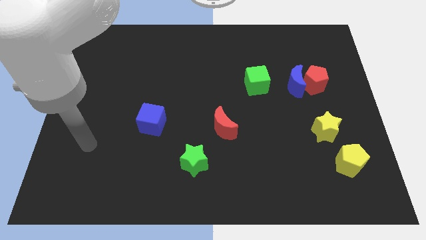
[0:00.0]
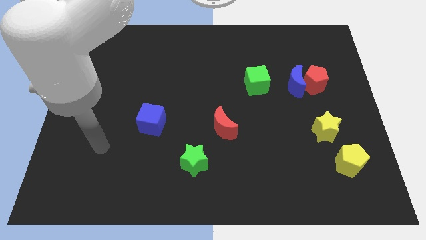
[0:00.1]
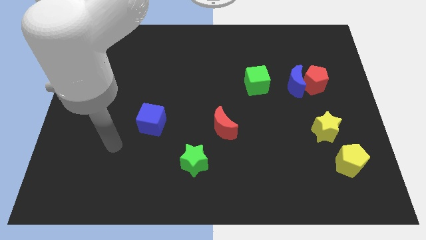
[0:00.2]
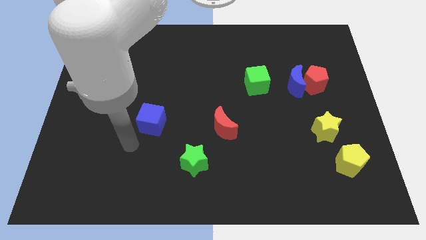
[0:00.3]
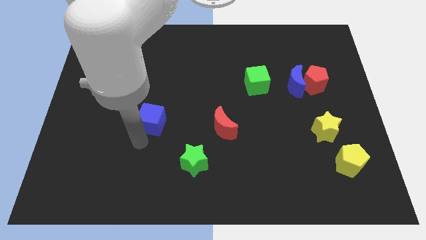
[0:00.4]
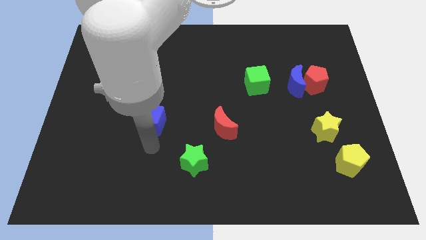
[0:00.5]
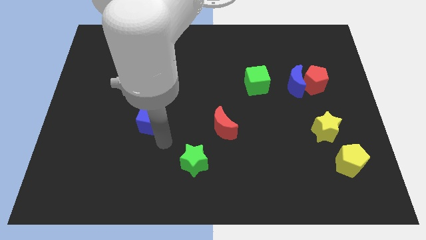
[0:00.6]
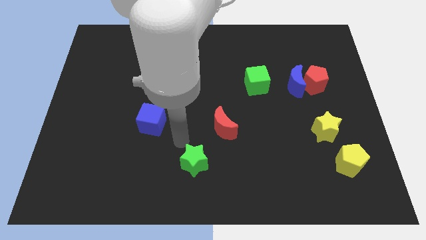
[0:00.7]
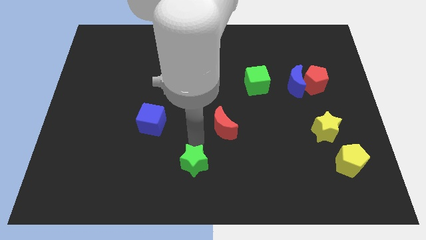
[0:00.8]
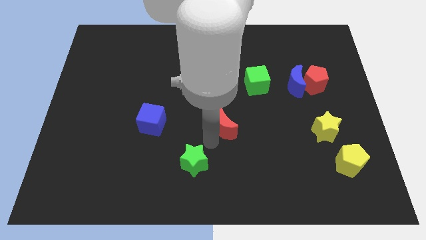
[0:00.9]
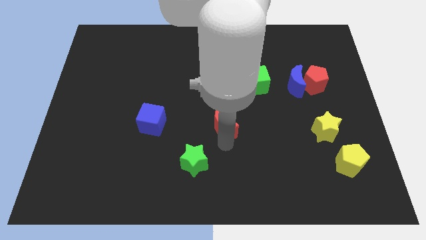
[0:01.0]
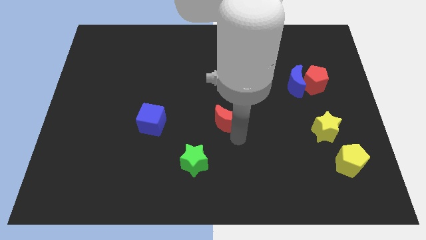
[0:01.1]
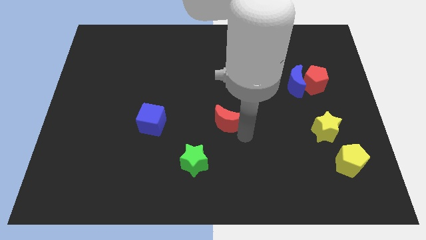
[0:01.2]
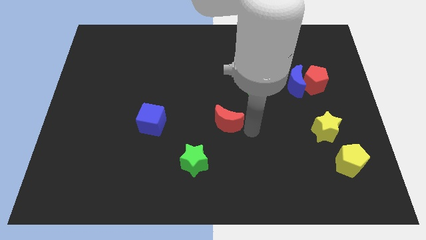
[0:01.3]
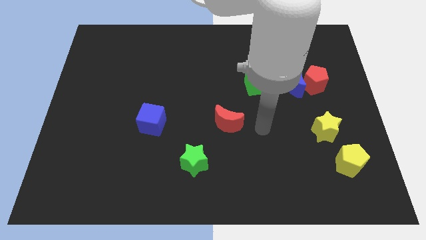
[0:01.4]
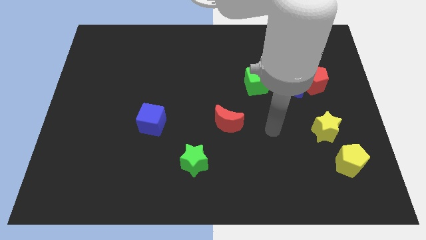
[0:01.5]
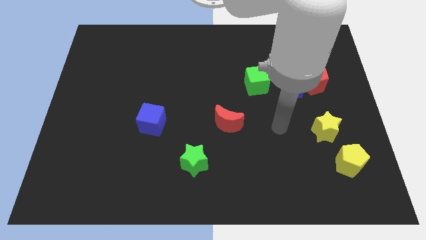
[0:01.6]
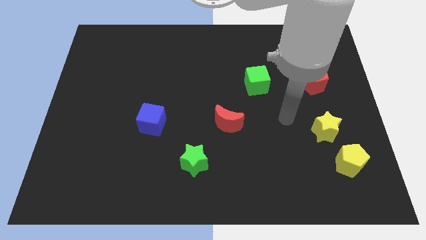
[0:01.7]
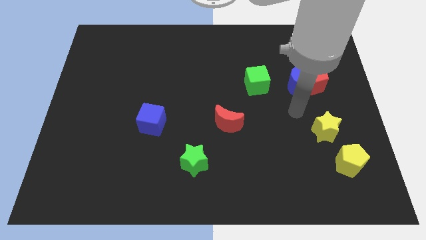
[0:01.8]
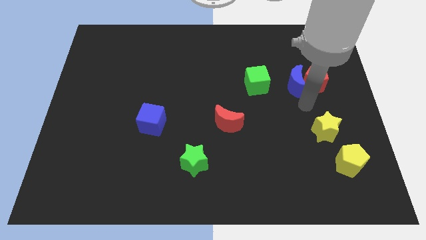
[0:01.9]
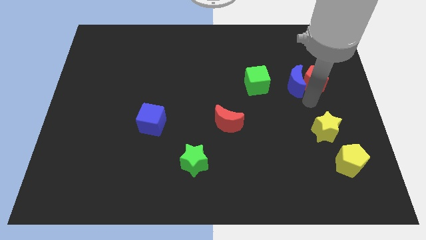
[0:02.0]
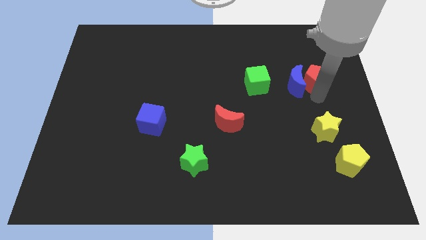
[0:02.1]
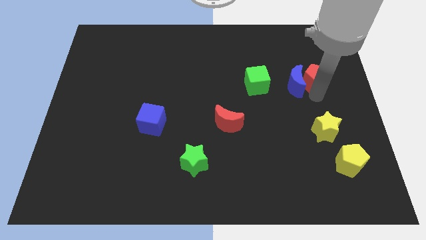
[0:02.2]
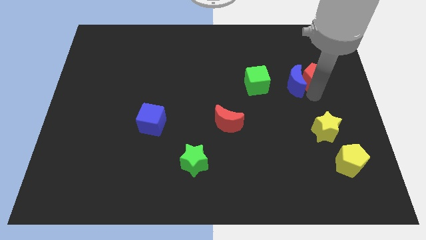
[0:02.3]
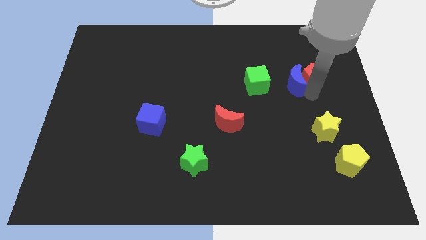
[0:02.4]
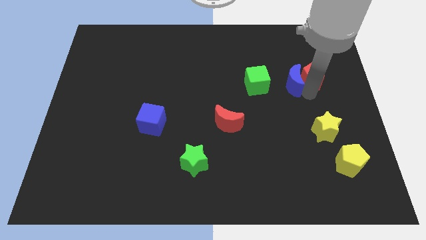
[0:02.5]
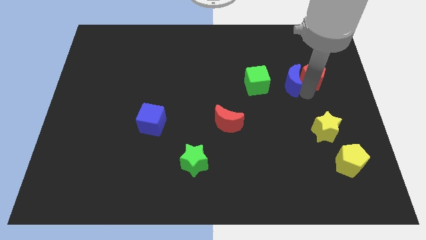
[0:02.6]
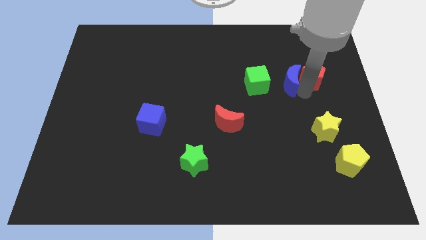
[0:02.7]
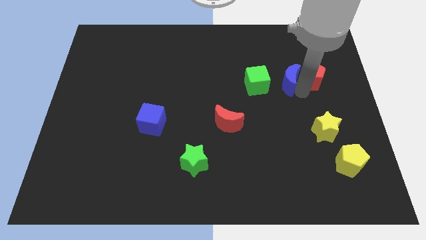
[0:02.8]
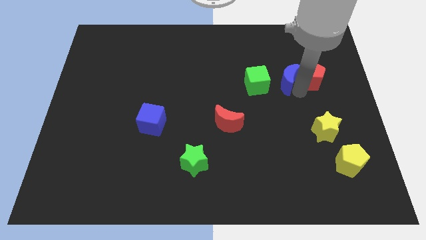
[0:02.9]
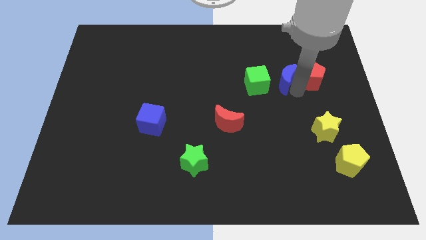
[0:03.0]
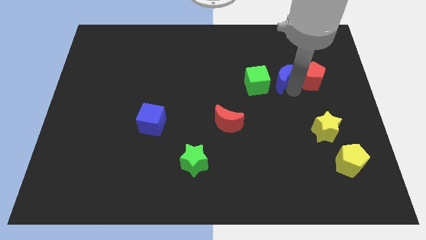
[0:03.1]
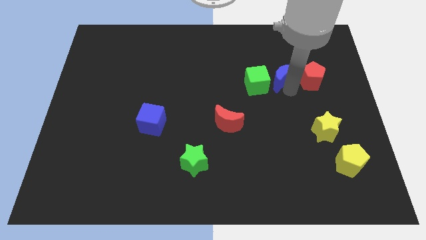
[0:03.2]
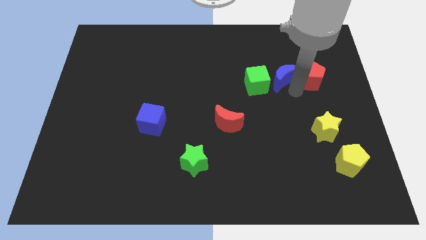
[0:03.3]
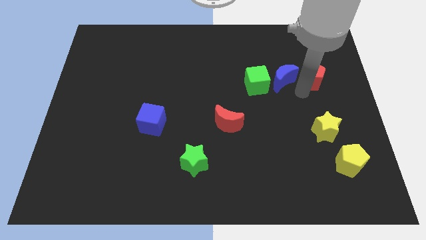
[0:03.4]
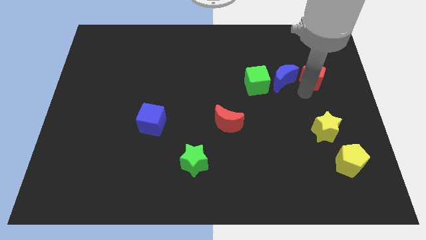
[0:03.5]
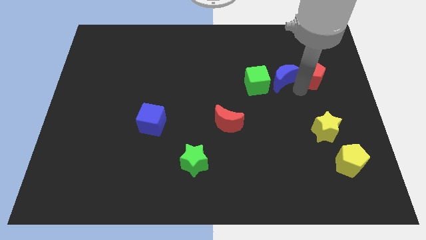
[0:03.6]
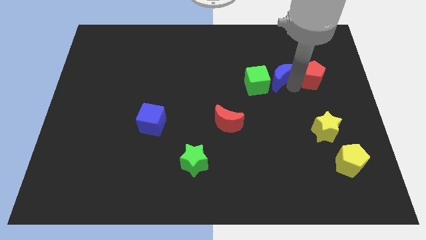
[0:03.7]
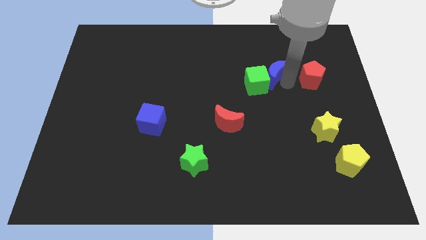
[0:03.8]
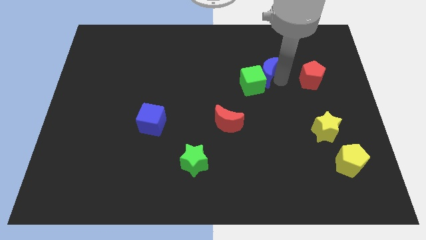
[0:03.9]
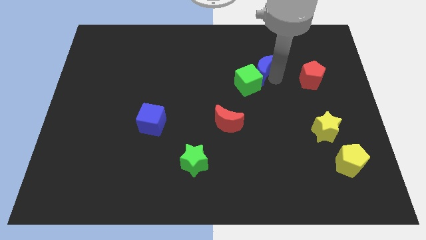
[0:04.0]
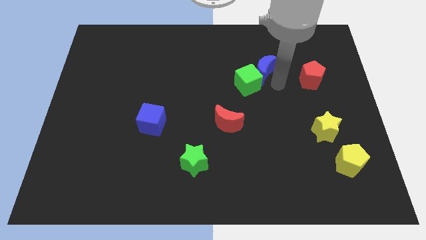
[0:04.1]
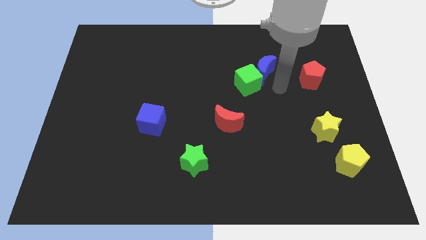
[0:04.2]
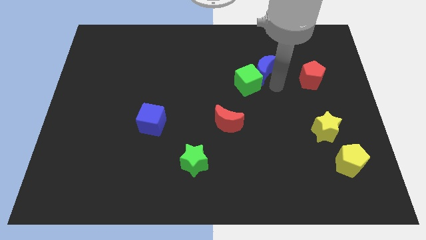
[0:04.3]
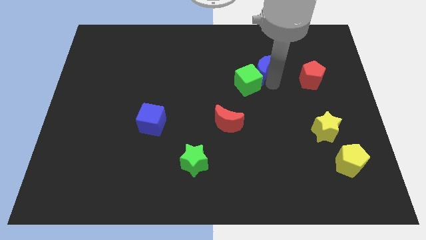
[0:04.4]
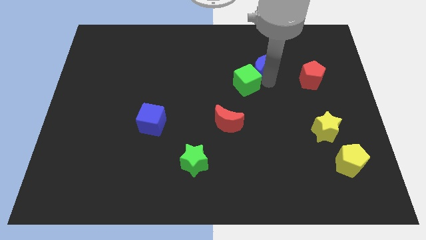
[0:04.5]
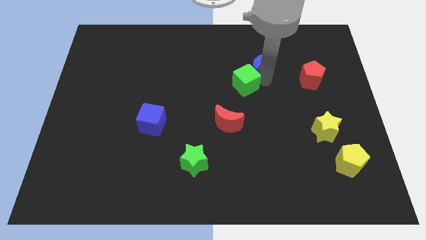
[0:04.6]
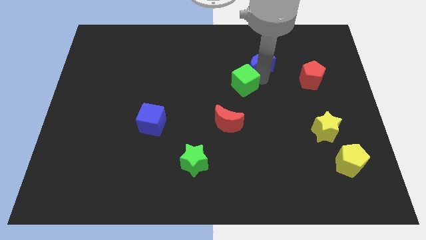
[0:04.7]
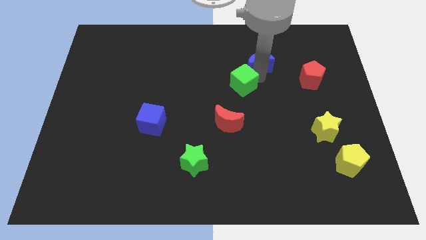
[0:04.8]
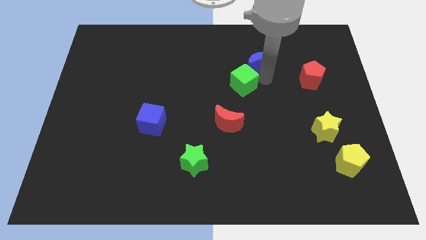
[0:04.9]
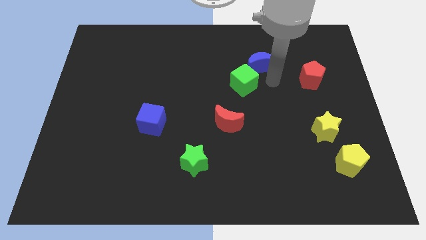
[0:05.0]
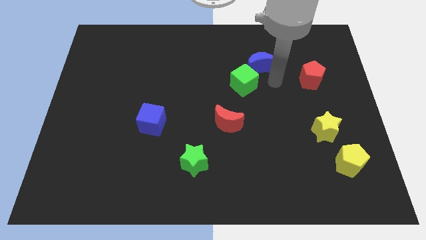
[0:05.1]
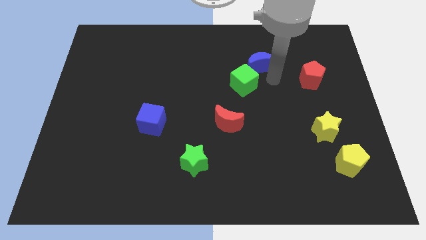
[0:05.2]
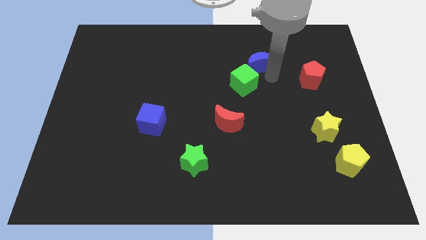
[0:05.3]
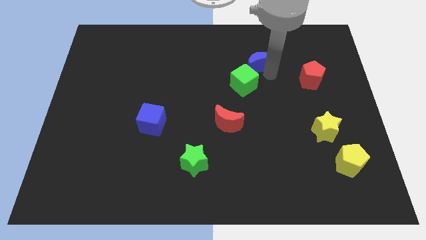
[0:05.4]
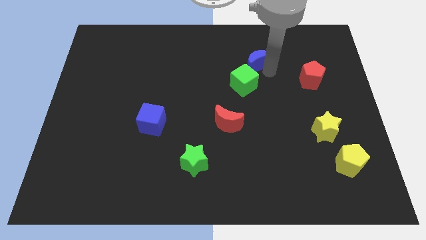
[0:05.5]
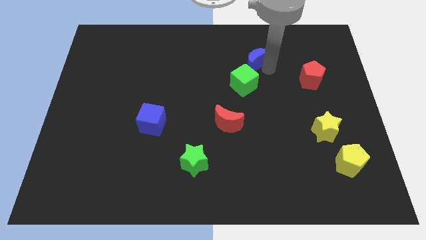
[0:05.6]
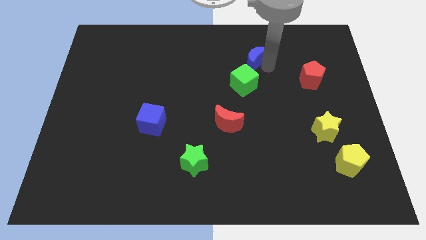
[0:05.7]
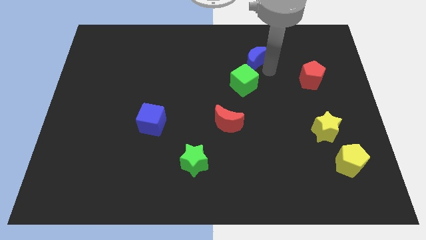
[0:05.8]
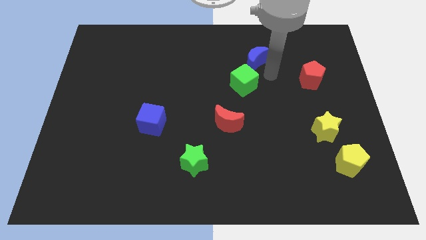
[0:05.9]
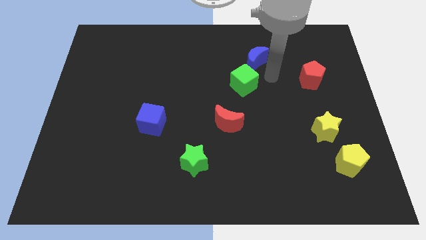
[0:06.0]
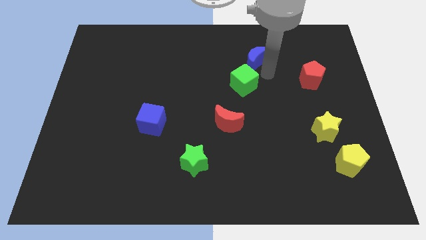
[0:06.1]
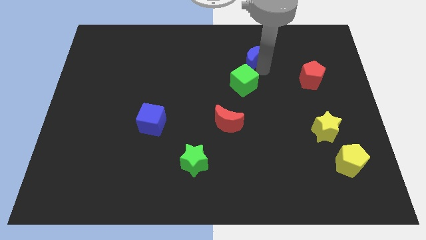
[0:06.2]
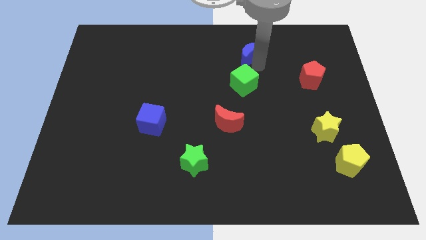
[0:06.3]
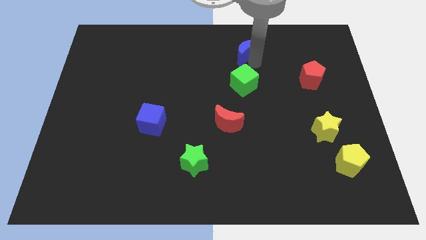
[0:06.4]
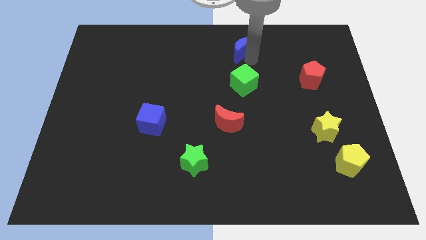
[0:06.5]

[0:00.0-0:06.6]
push the blue moon to the top side
